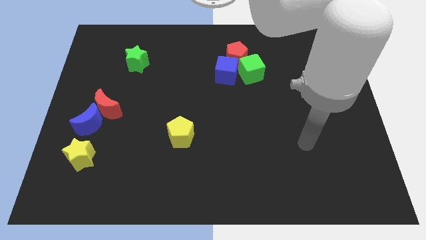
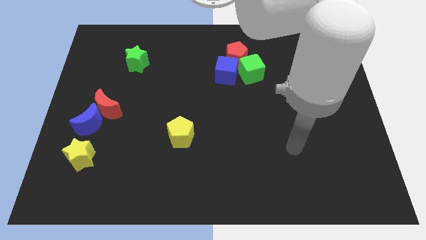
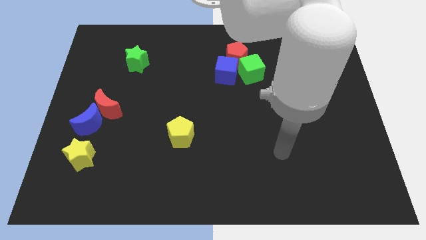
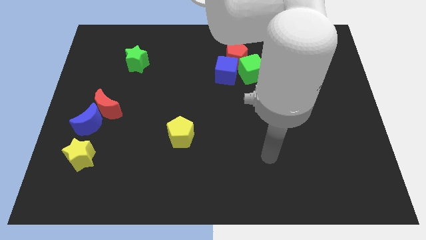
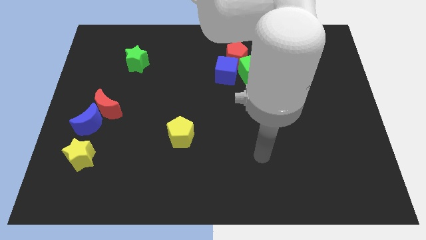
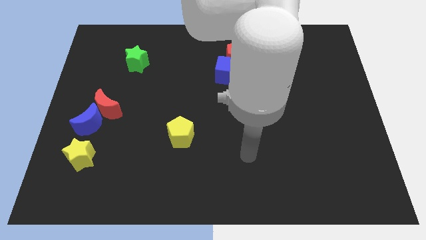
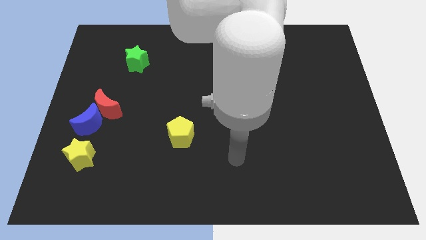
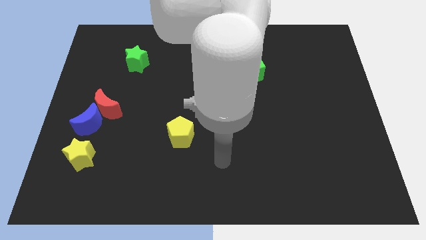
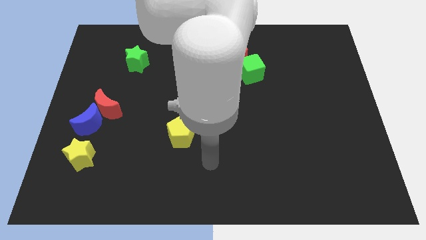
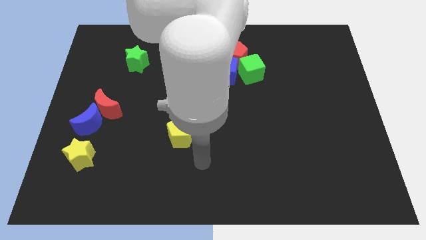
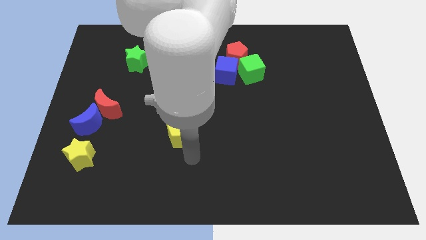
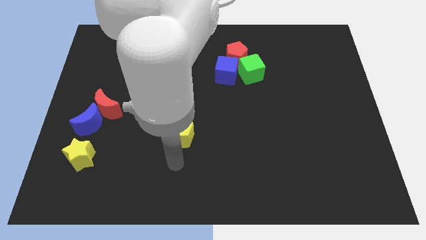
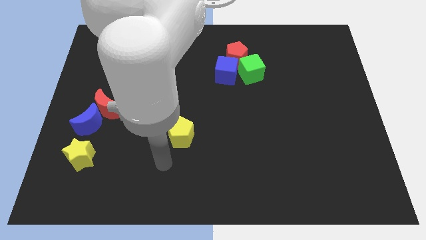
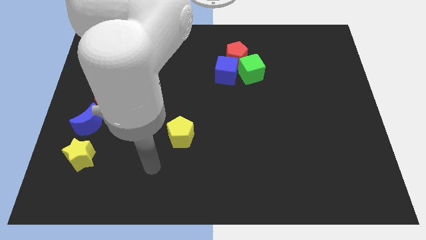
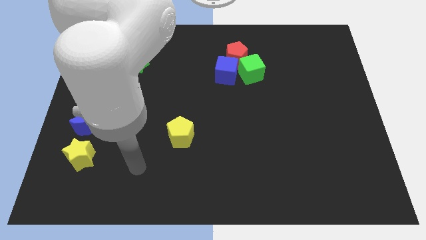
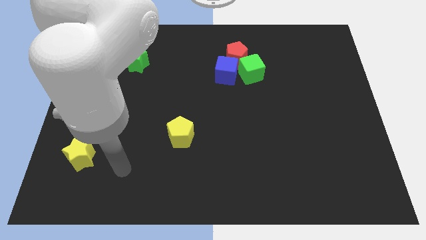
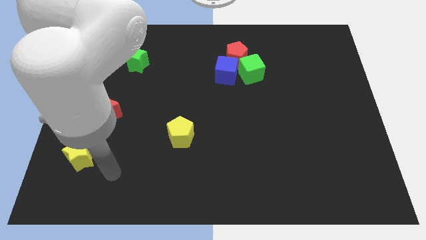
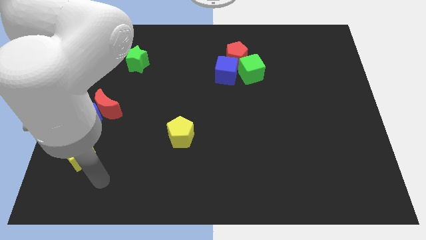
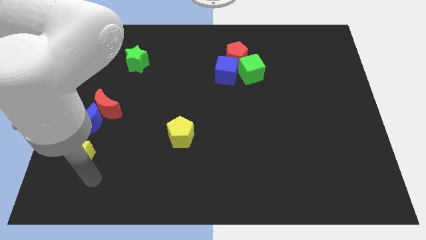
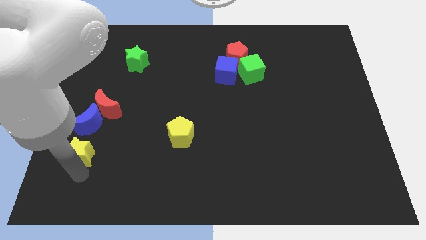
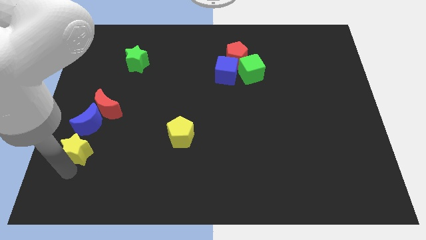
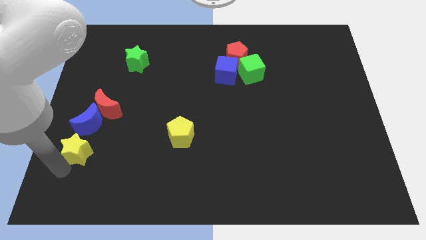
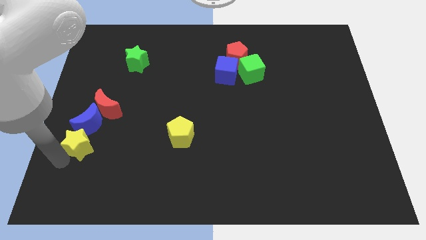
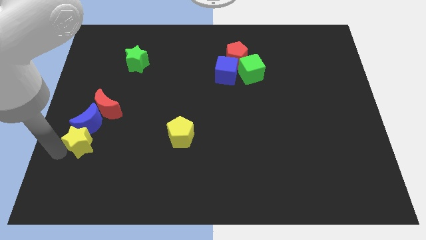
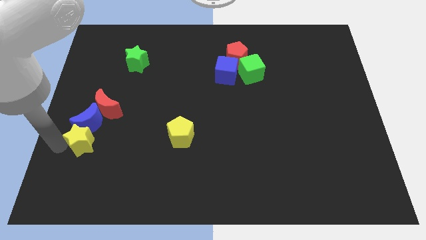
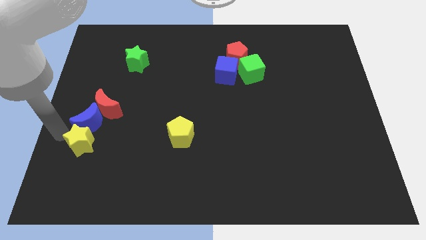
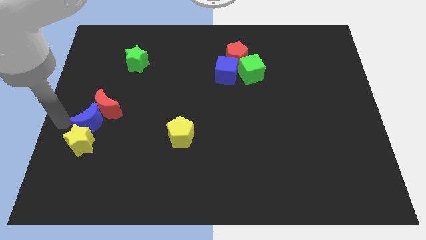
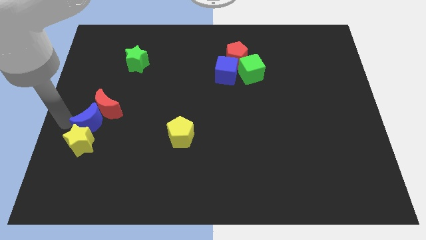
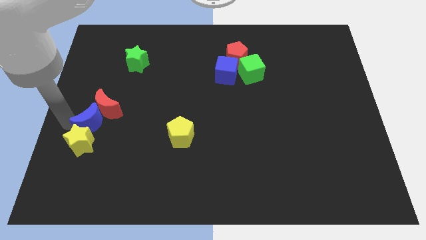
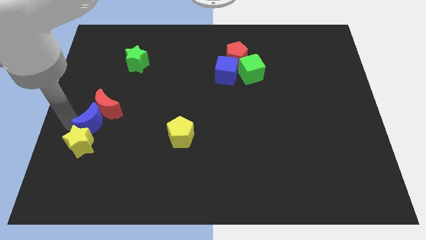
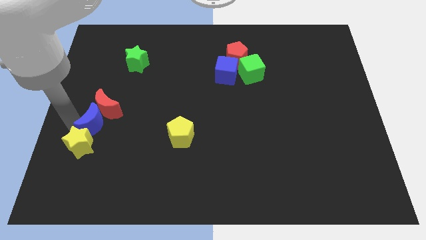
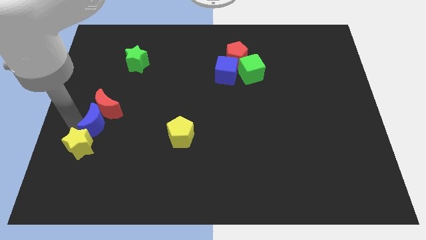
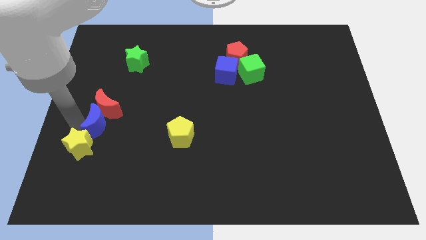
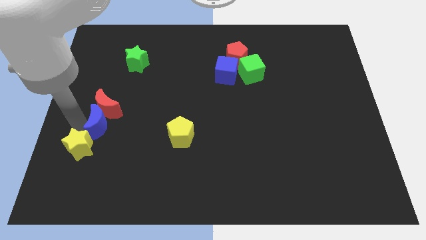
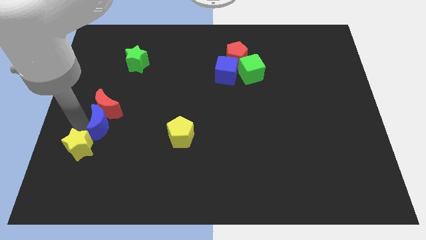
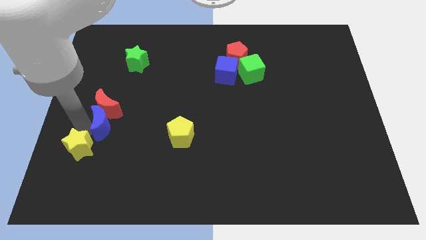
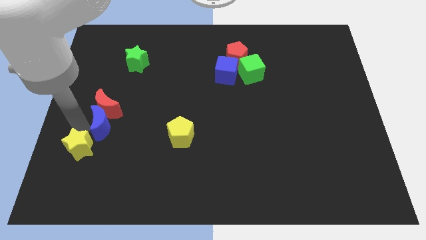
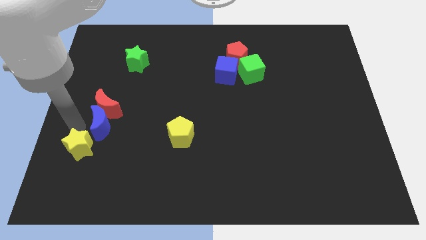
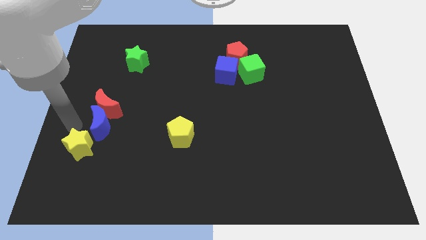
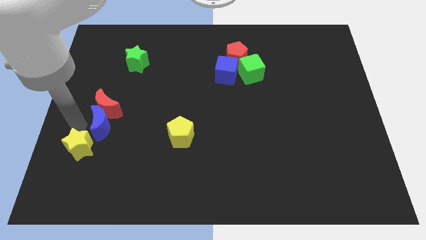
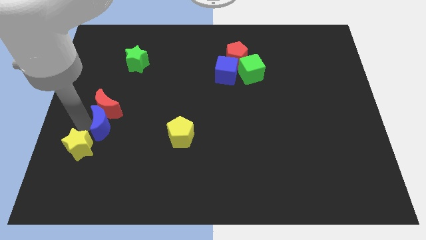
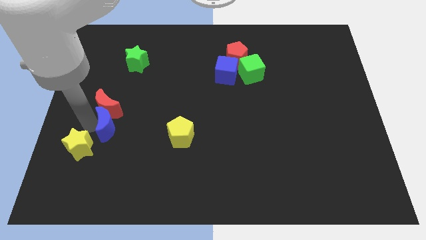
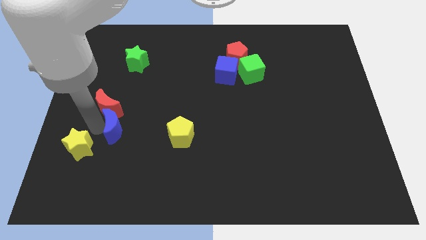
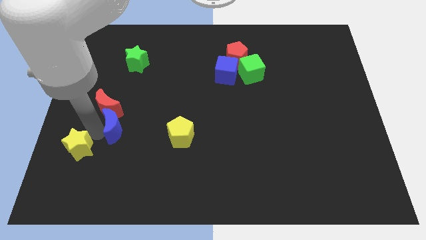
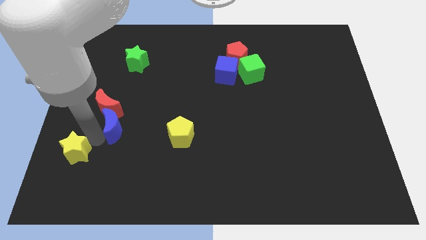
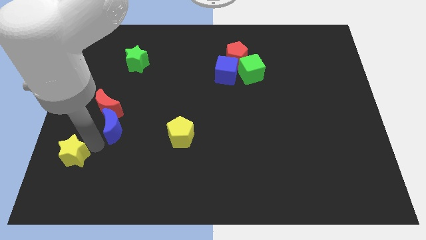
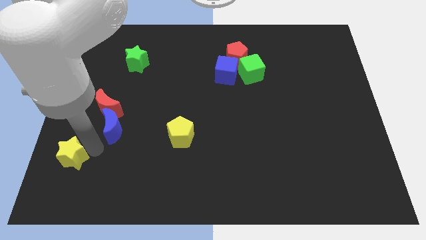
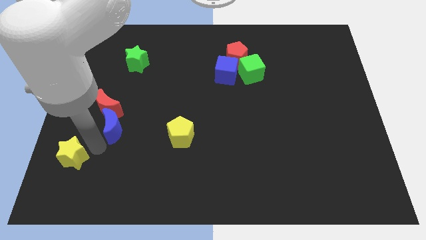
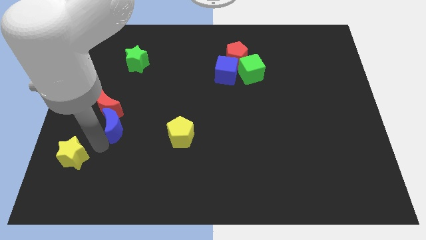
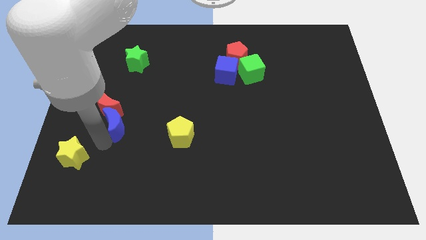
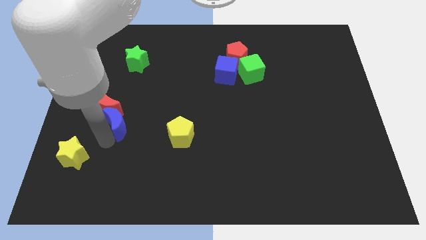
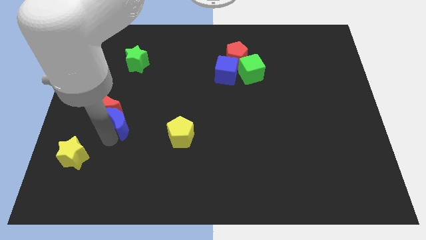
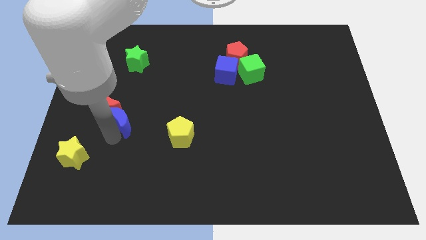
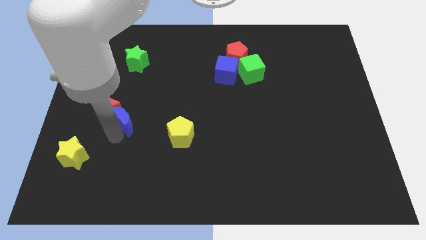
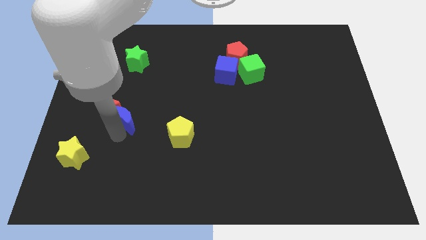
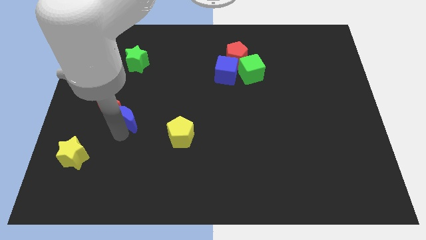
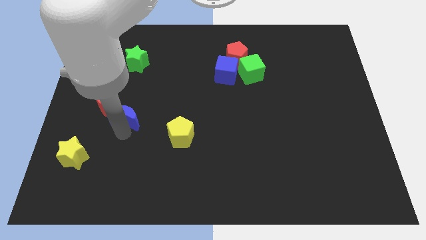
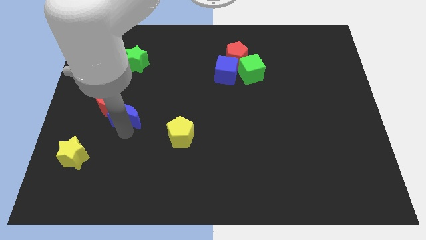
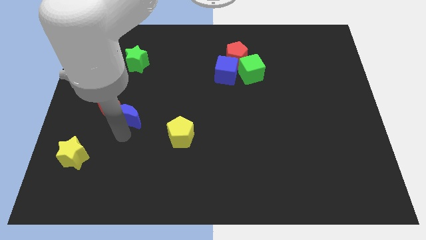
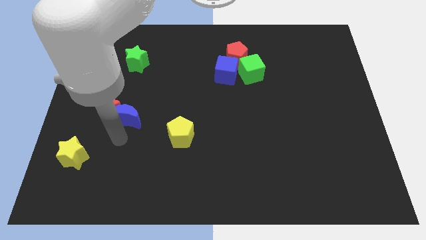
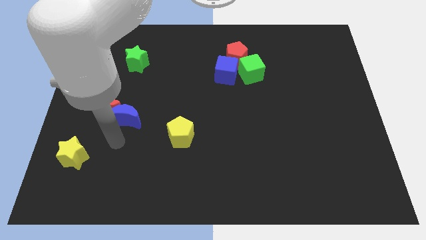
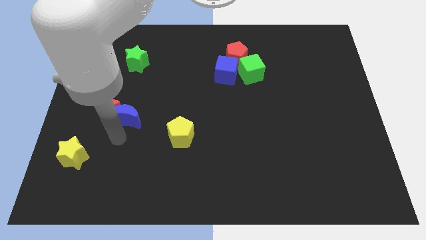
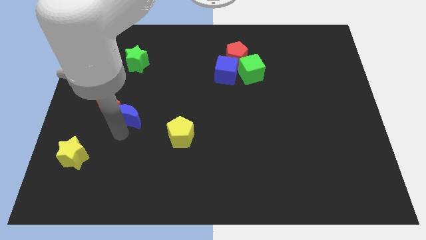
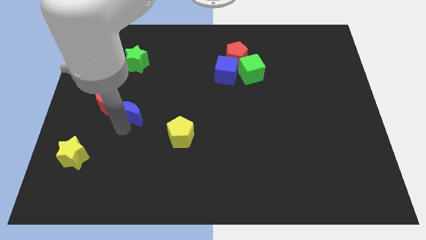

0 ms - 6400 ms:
slide the blue moon a little bit upwards and to the right diagonally

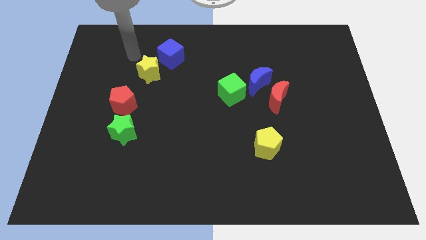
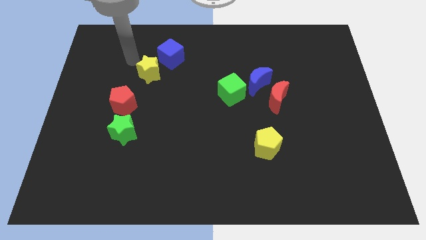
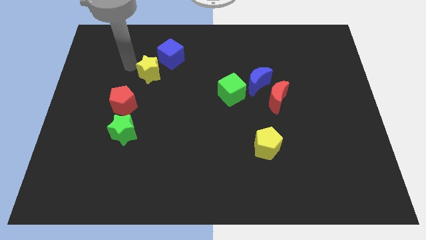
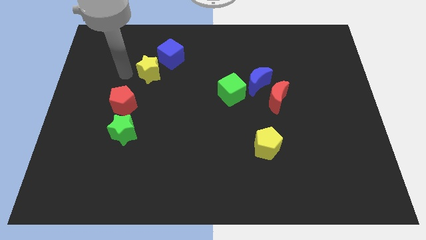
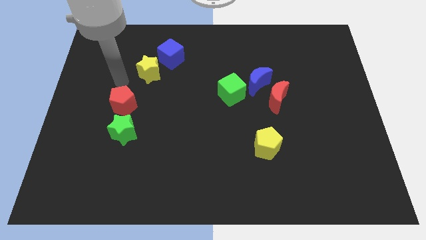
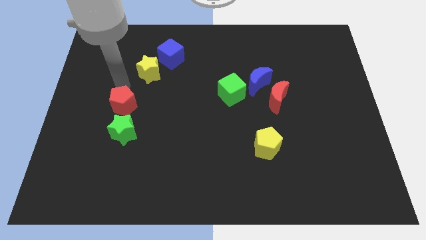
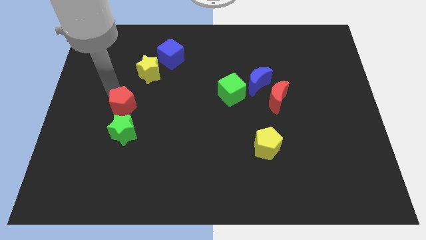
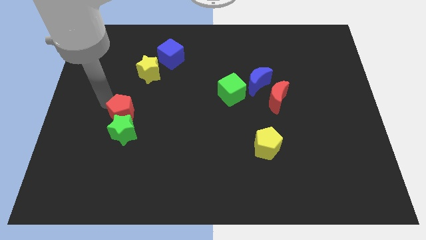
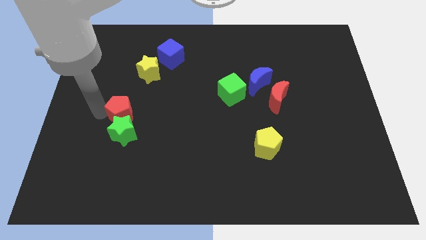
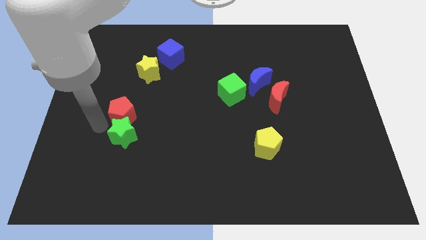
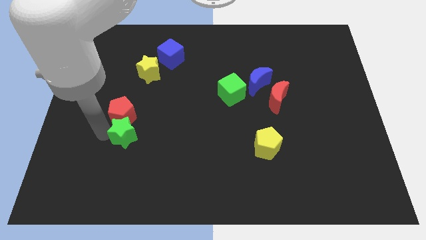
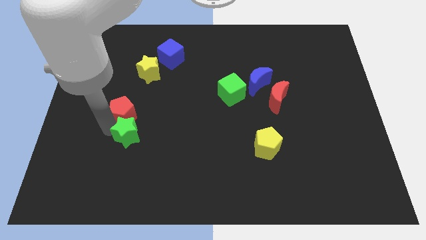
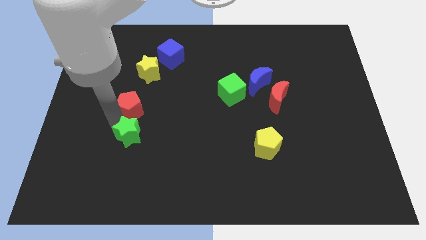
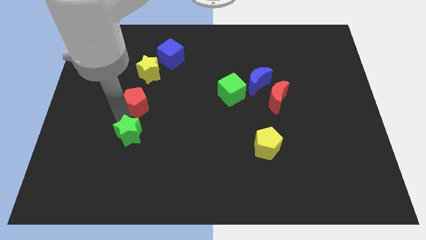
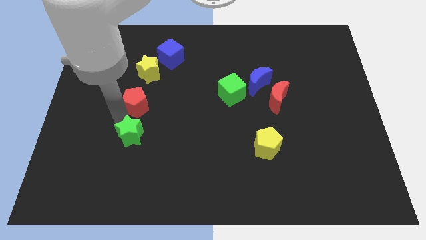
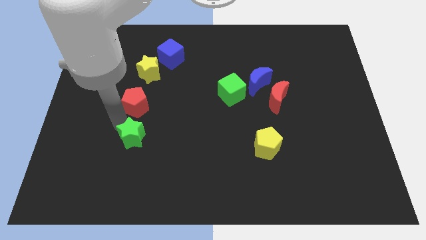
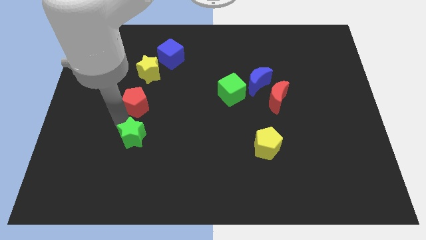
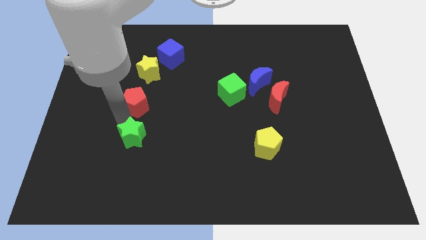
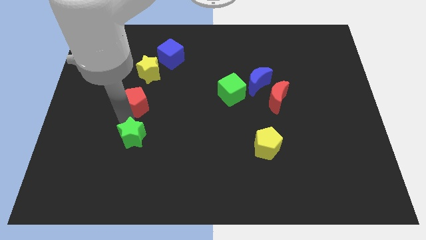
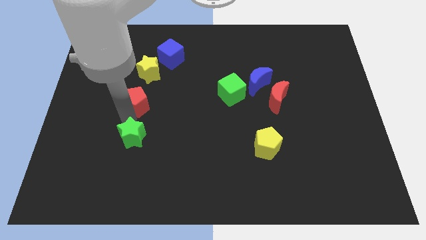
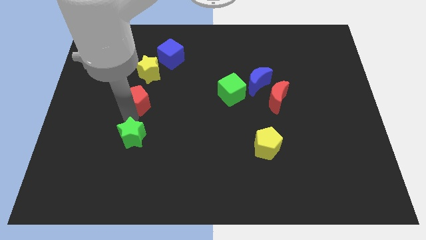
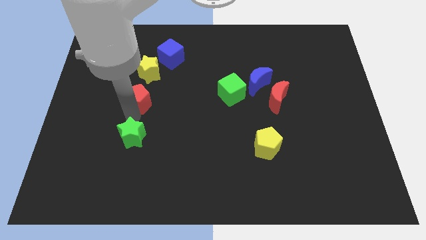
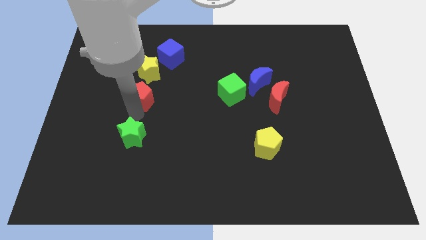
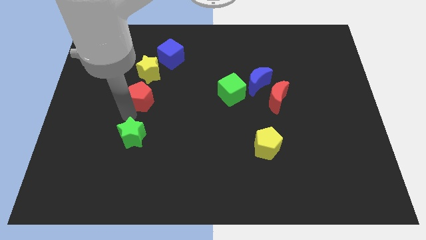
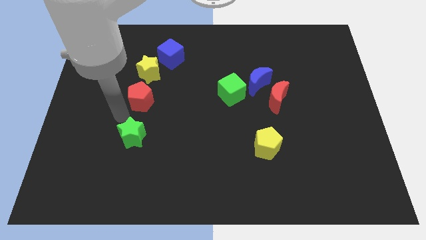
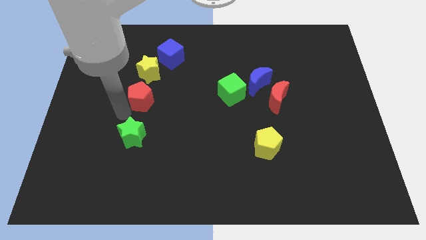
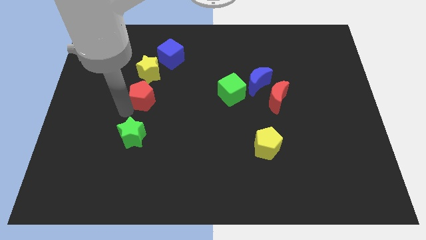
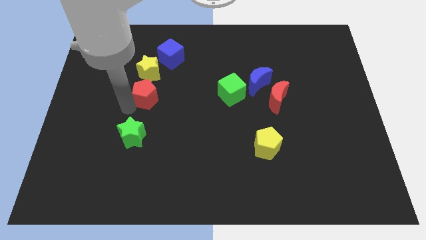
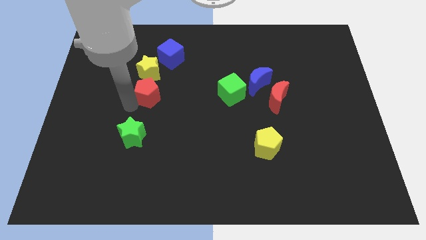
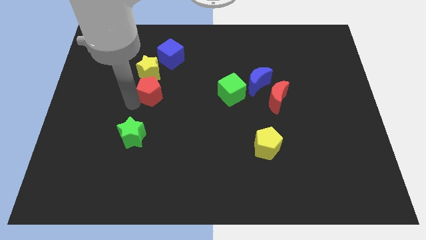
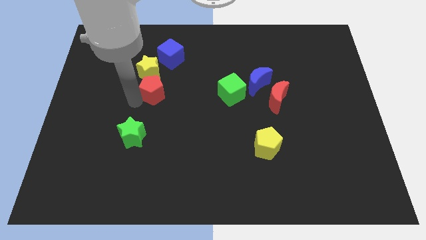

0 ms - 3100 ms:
move the red pentagon a little upwards and right
